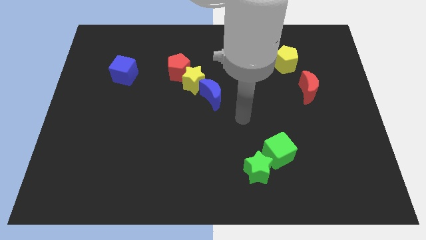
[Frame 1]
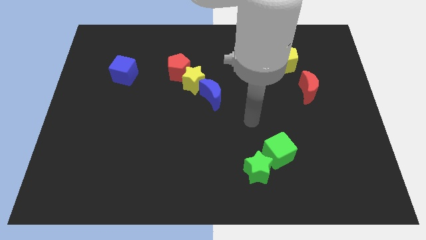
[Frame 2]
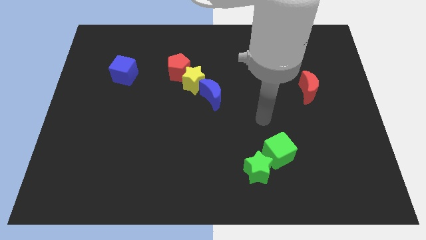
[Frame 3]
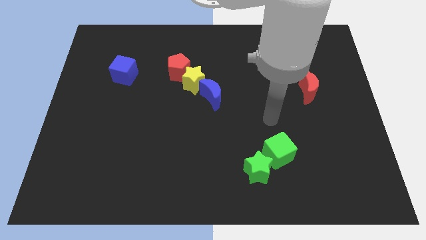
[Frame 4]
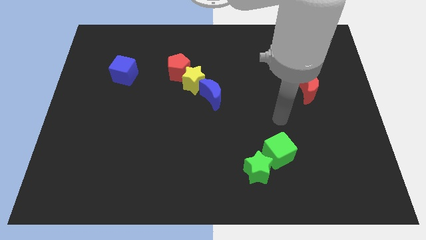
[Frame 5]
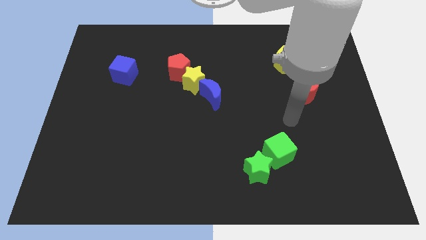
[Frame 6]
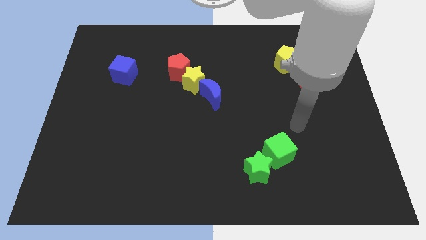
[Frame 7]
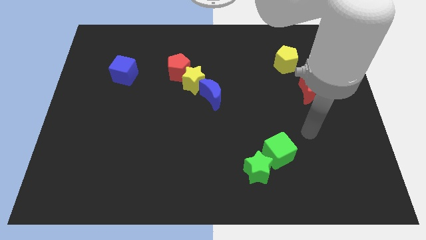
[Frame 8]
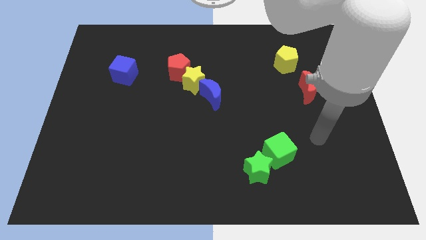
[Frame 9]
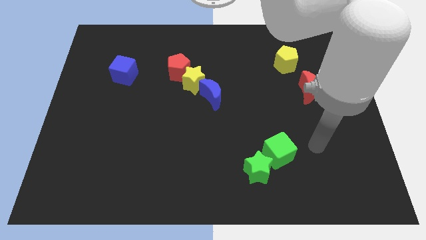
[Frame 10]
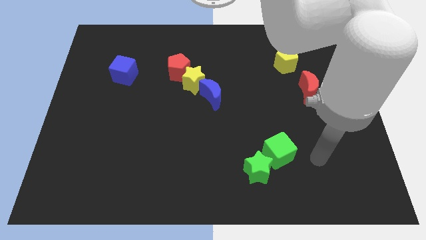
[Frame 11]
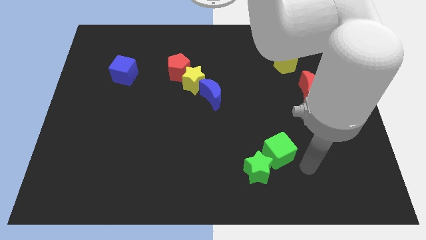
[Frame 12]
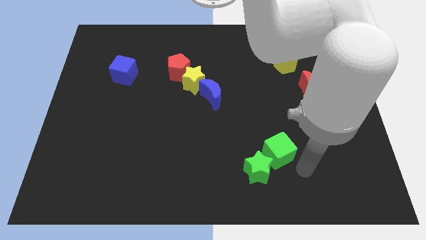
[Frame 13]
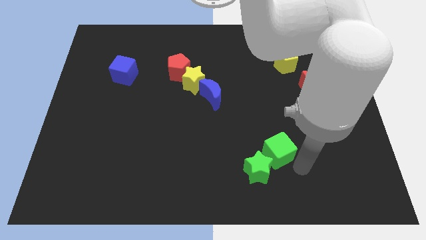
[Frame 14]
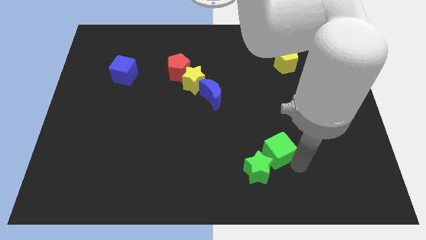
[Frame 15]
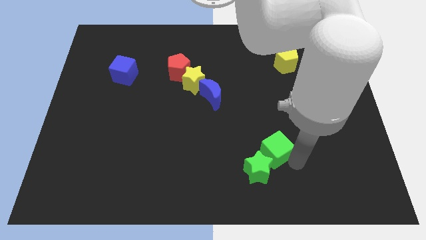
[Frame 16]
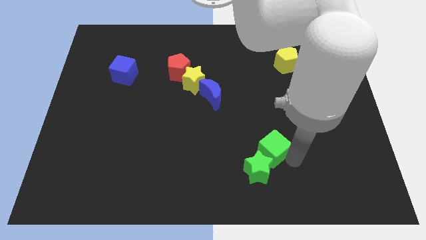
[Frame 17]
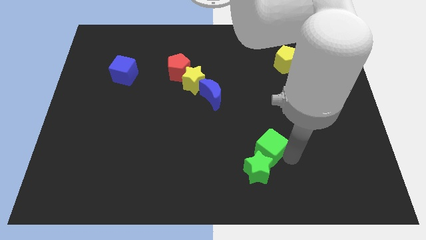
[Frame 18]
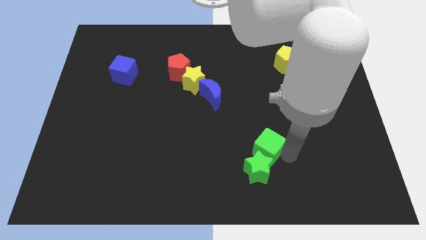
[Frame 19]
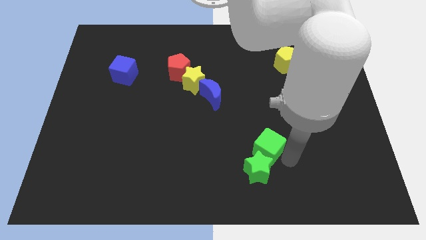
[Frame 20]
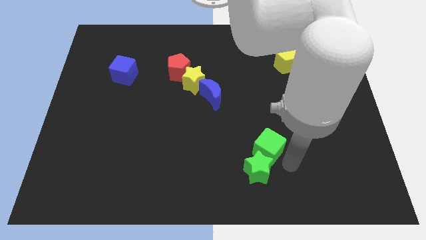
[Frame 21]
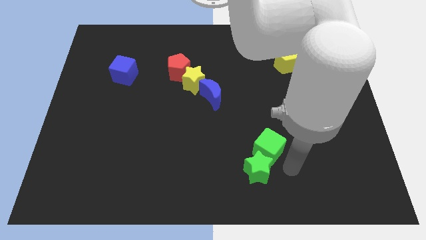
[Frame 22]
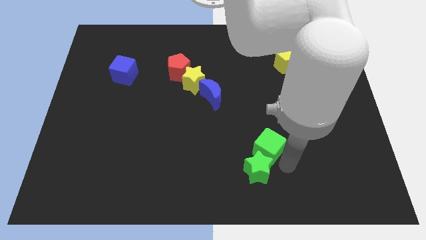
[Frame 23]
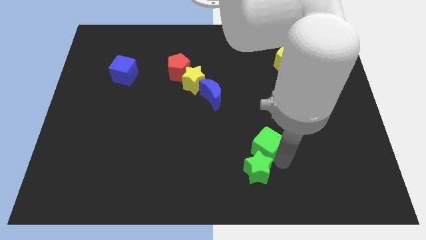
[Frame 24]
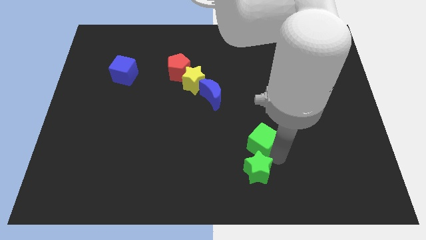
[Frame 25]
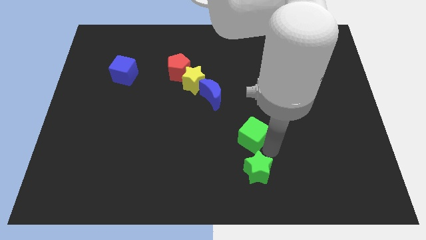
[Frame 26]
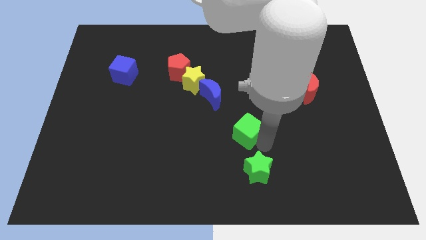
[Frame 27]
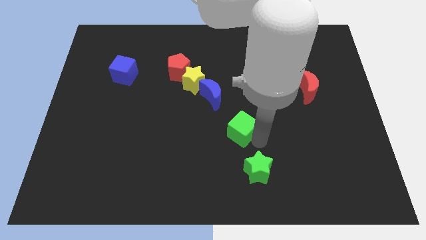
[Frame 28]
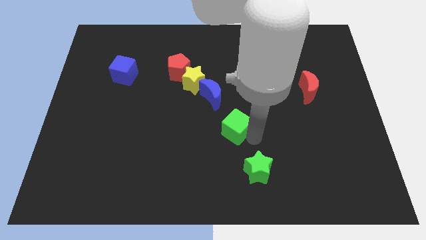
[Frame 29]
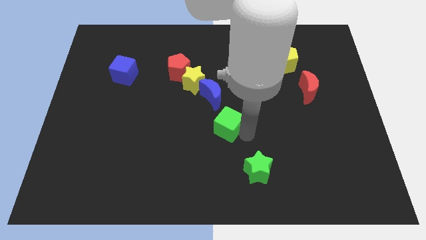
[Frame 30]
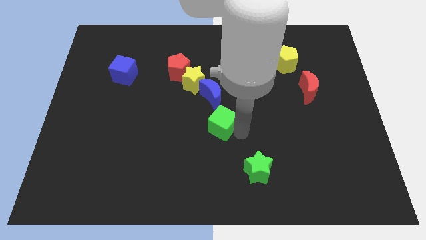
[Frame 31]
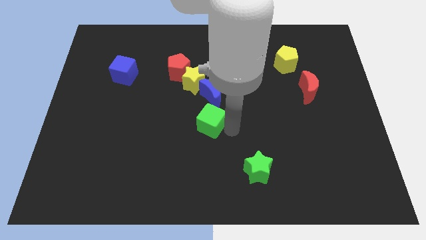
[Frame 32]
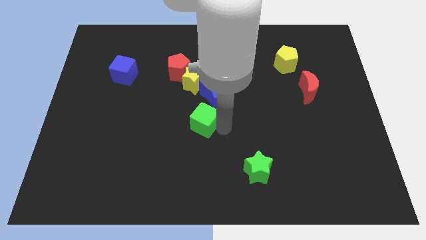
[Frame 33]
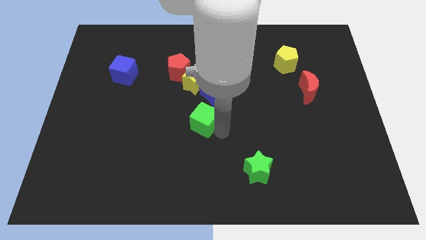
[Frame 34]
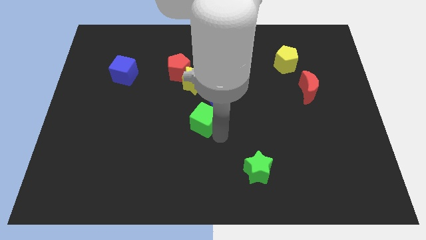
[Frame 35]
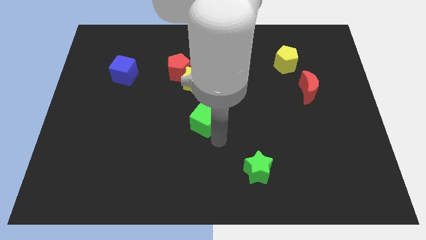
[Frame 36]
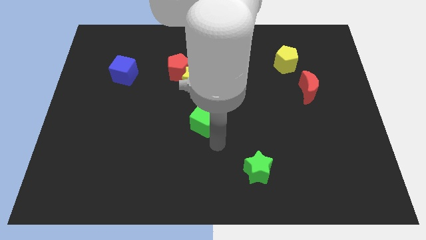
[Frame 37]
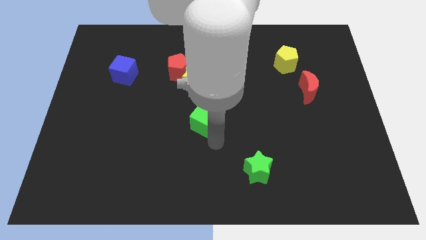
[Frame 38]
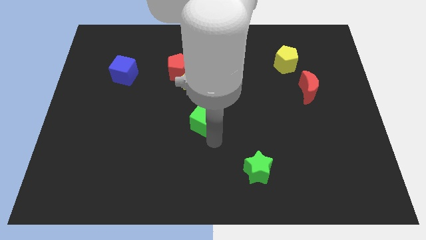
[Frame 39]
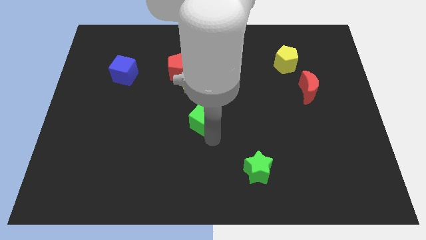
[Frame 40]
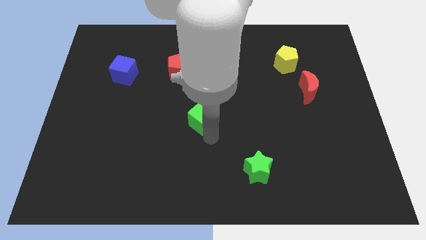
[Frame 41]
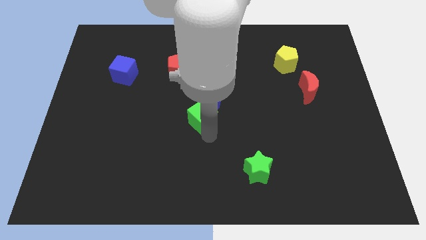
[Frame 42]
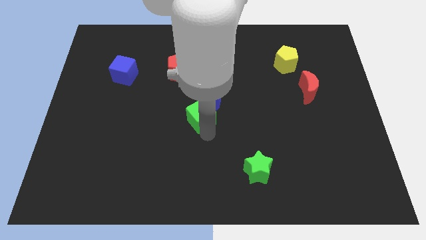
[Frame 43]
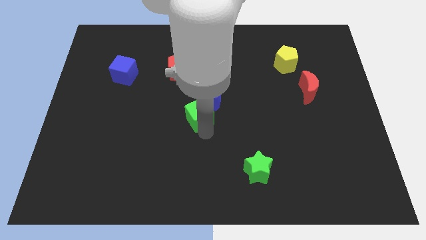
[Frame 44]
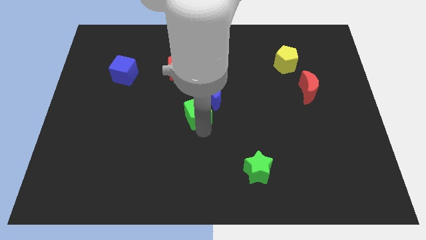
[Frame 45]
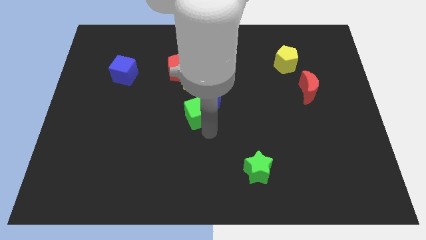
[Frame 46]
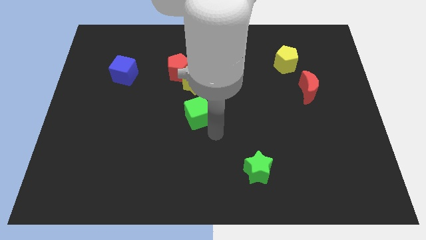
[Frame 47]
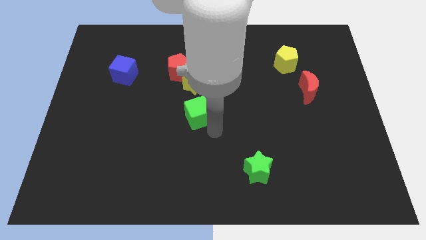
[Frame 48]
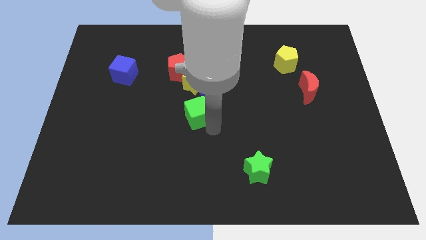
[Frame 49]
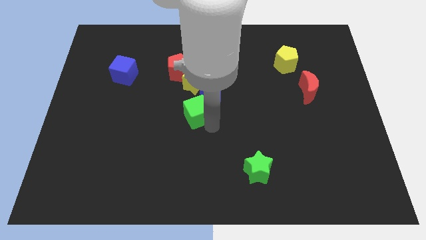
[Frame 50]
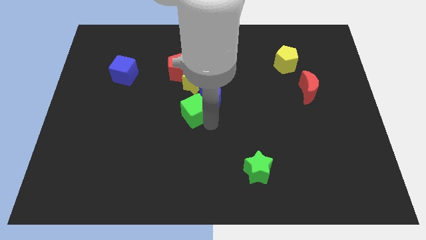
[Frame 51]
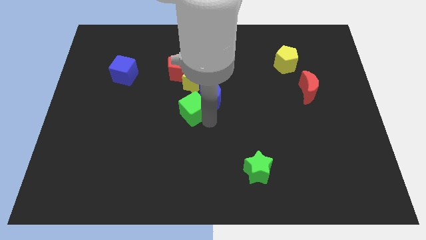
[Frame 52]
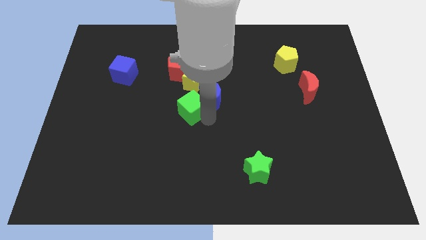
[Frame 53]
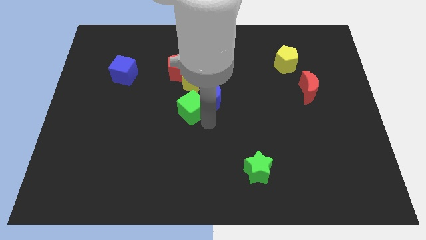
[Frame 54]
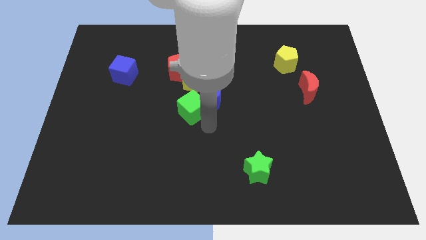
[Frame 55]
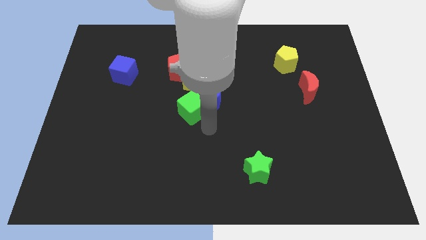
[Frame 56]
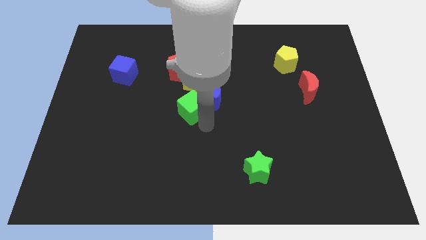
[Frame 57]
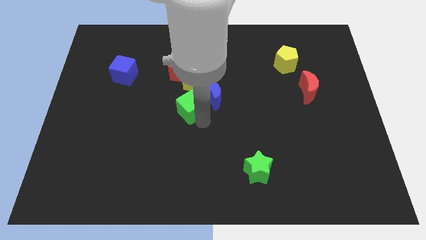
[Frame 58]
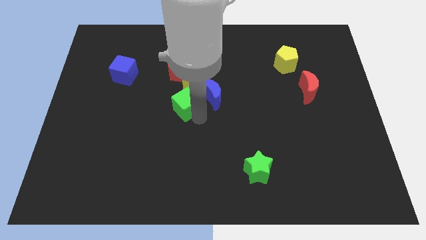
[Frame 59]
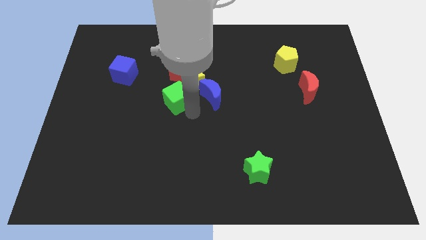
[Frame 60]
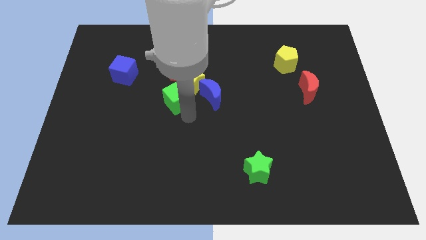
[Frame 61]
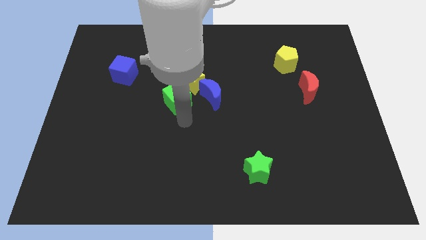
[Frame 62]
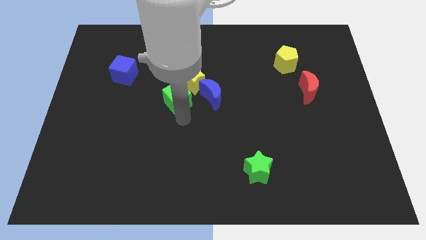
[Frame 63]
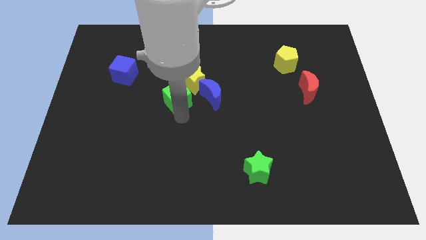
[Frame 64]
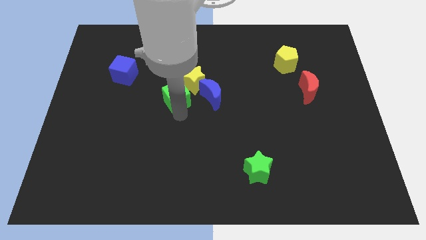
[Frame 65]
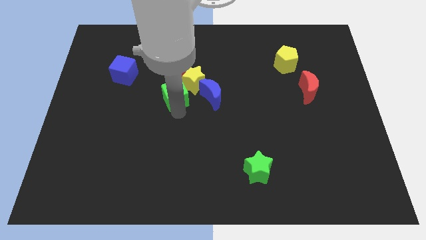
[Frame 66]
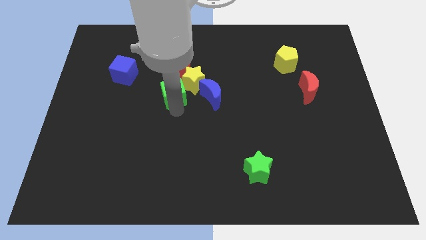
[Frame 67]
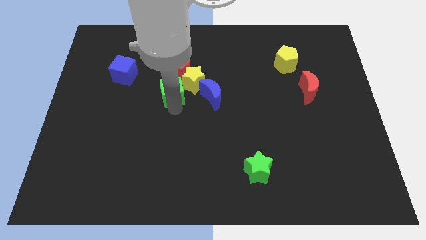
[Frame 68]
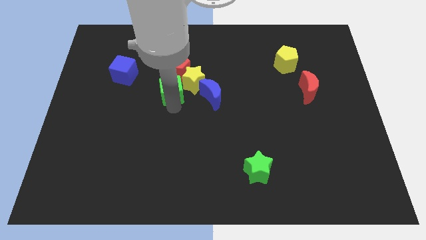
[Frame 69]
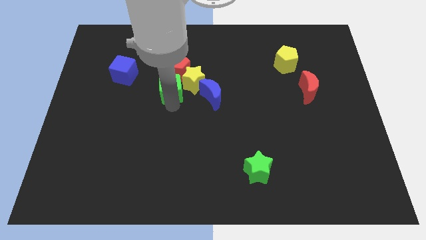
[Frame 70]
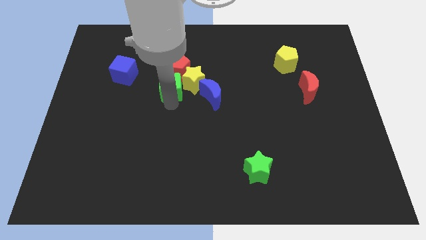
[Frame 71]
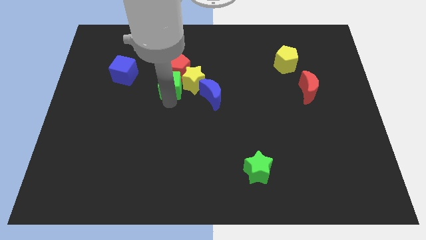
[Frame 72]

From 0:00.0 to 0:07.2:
slide the green cube towards the red pentagon
